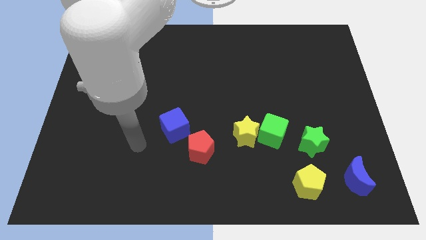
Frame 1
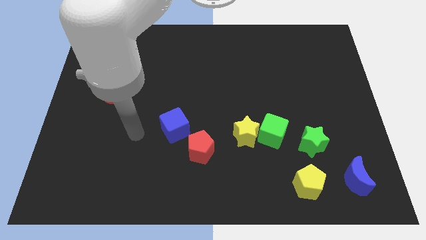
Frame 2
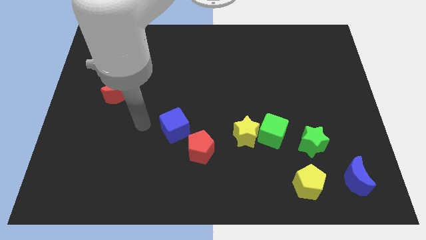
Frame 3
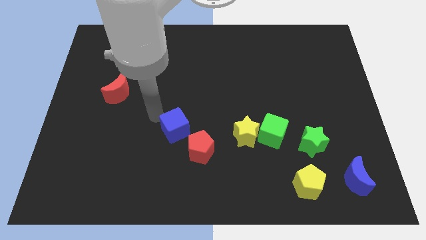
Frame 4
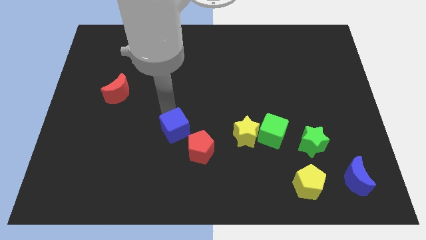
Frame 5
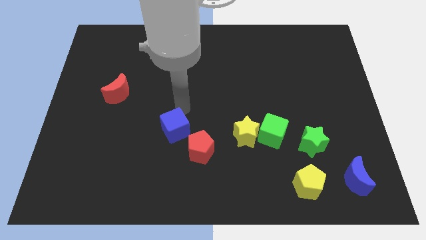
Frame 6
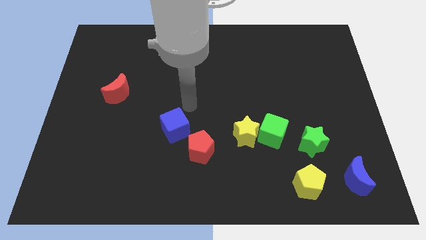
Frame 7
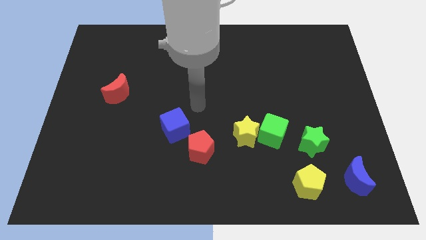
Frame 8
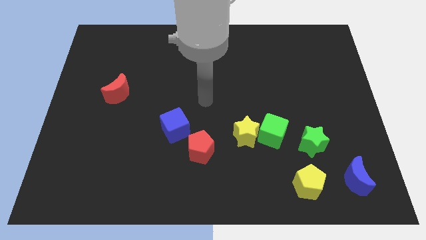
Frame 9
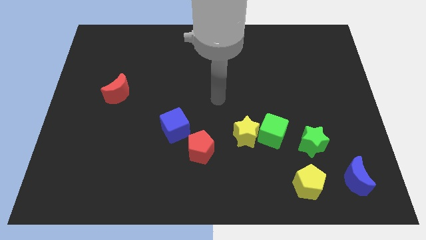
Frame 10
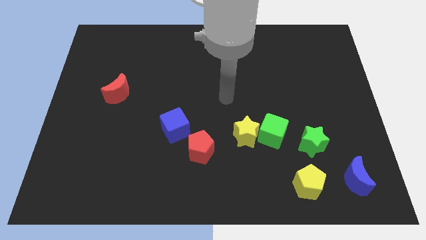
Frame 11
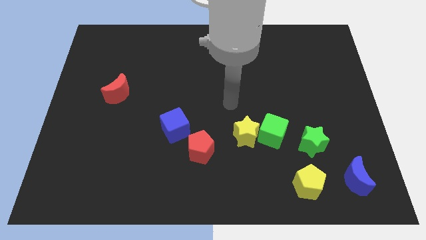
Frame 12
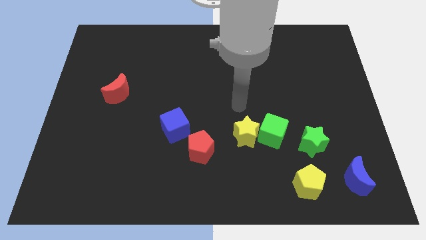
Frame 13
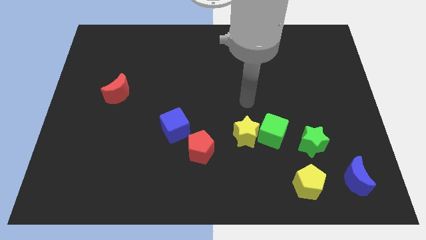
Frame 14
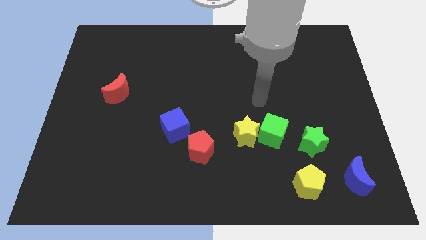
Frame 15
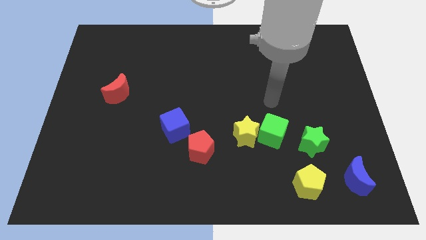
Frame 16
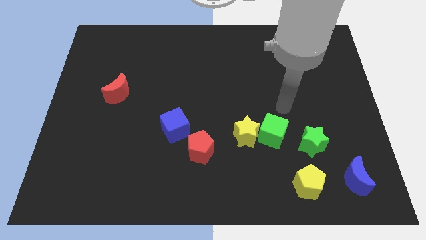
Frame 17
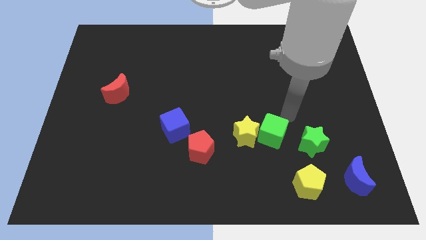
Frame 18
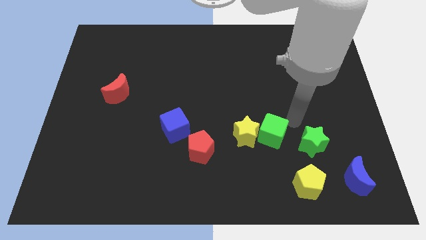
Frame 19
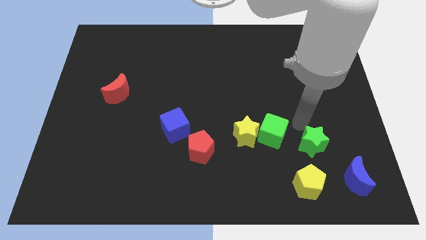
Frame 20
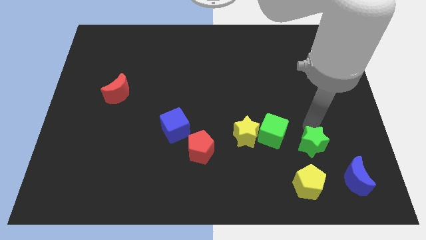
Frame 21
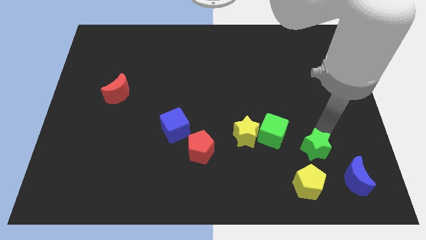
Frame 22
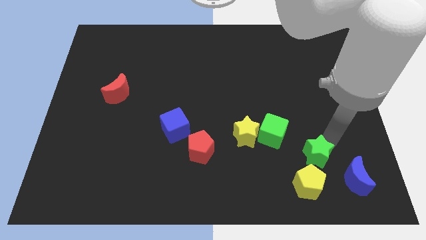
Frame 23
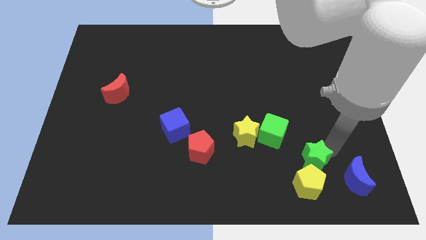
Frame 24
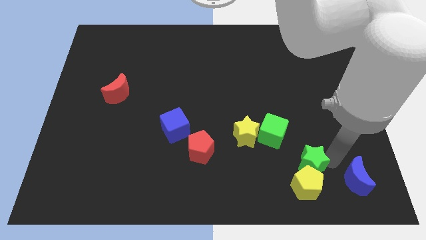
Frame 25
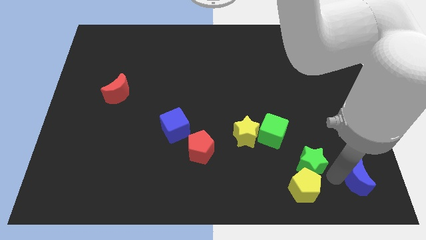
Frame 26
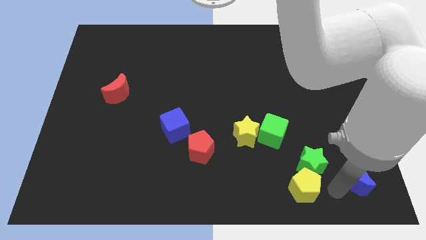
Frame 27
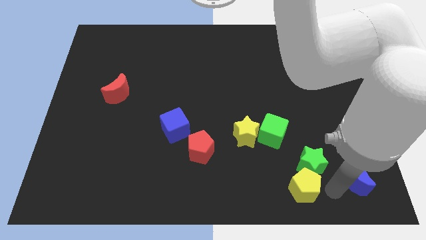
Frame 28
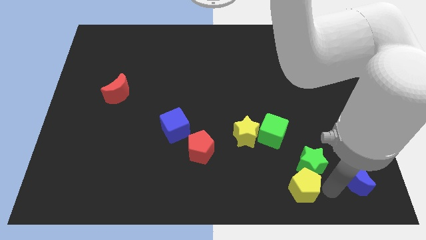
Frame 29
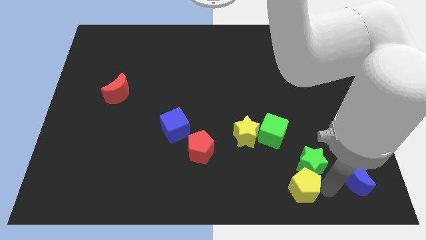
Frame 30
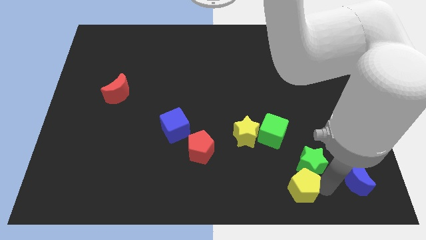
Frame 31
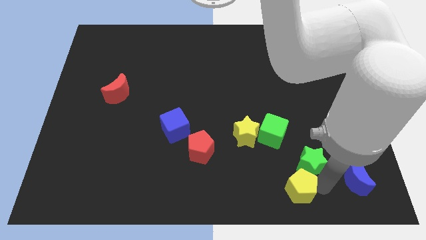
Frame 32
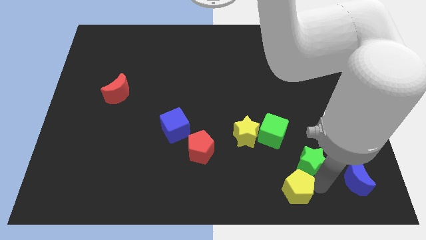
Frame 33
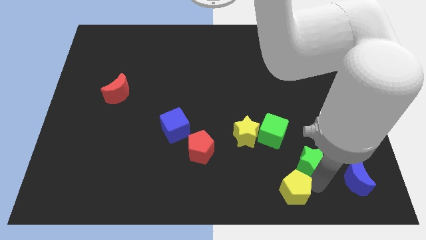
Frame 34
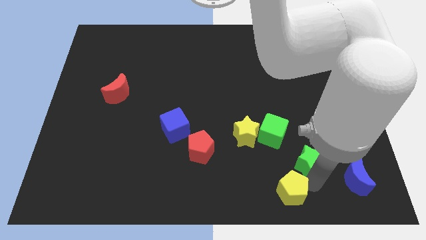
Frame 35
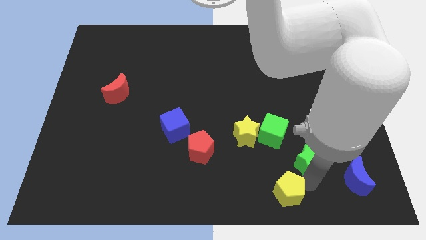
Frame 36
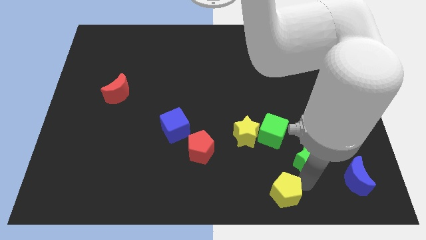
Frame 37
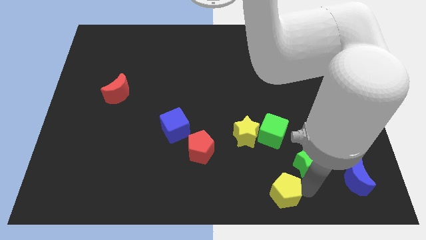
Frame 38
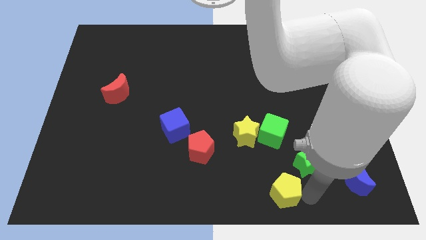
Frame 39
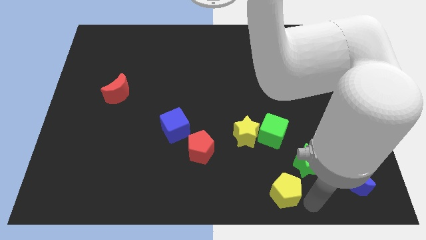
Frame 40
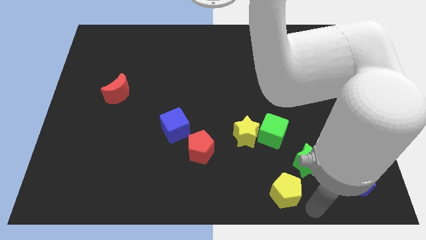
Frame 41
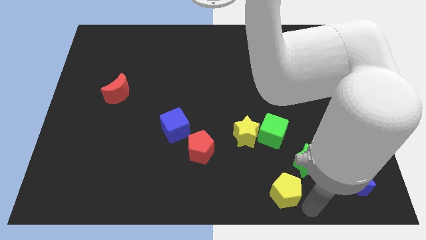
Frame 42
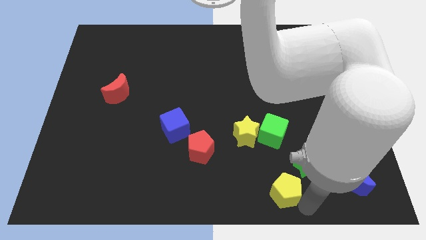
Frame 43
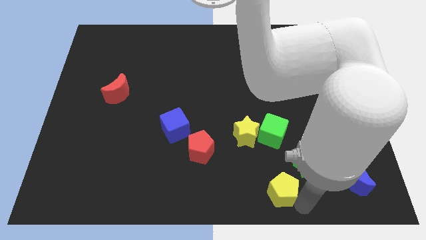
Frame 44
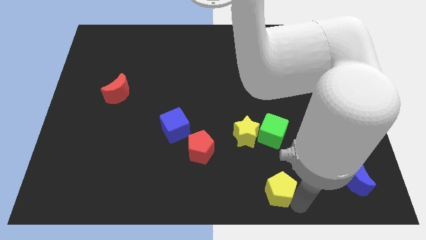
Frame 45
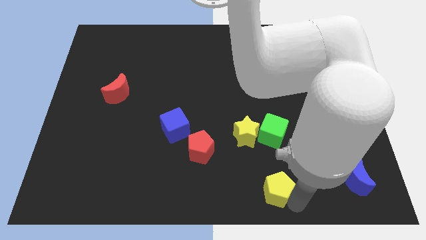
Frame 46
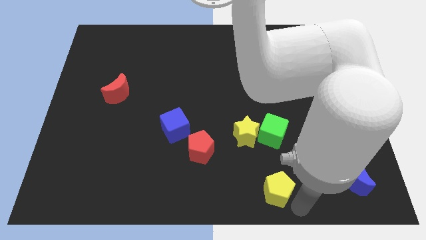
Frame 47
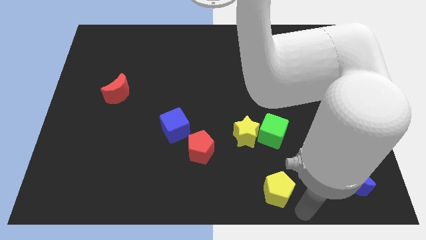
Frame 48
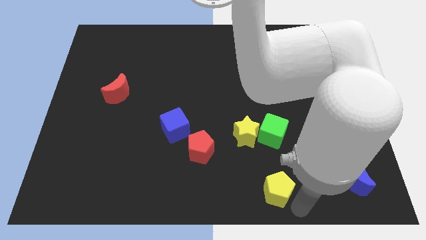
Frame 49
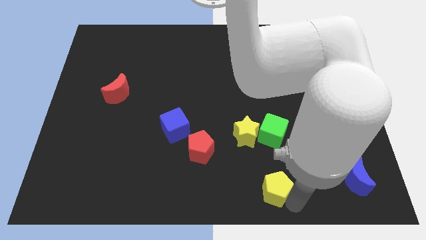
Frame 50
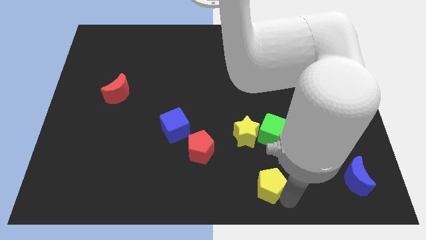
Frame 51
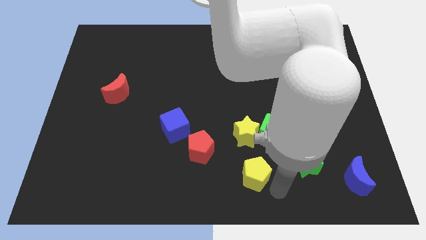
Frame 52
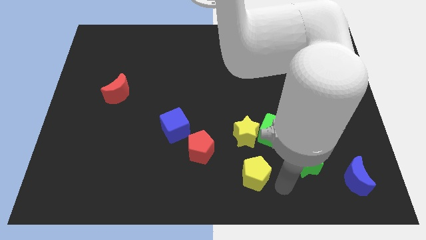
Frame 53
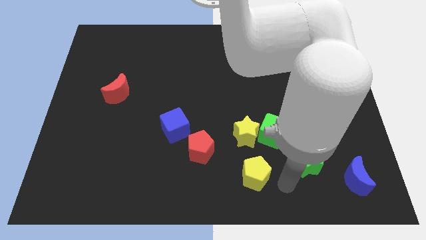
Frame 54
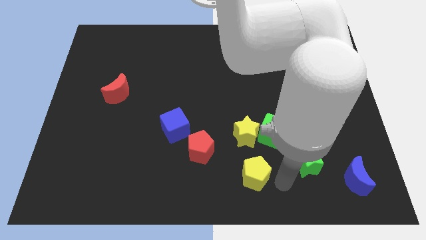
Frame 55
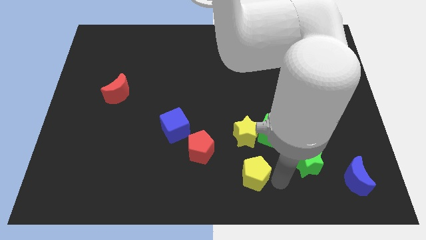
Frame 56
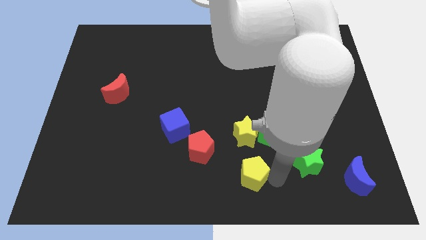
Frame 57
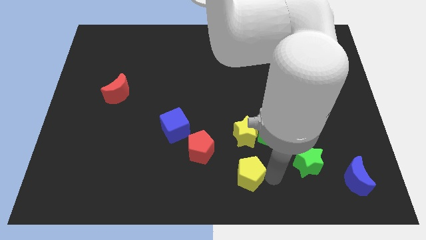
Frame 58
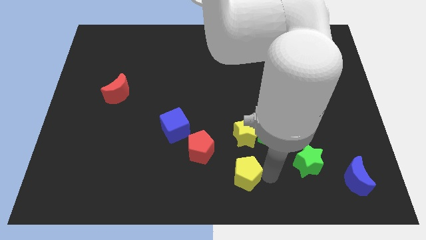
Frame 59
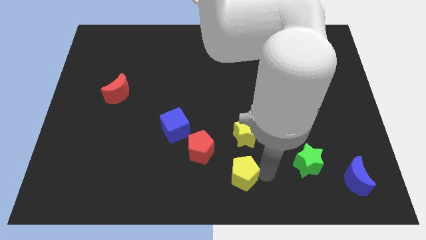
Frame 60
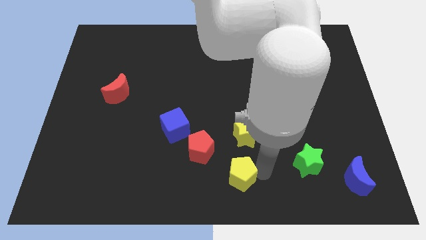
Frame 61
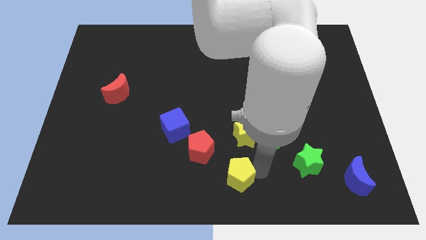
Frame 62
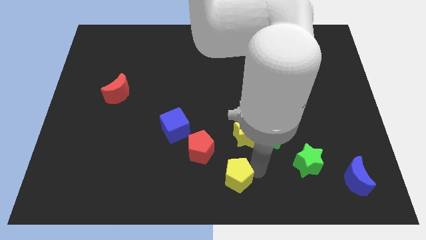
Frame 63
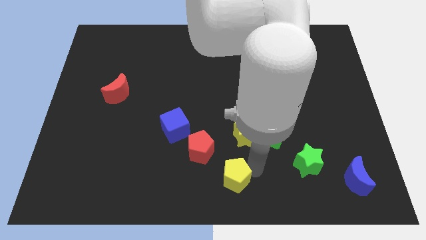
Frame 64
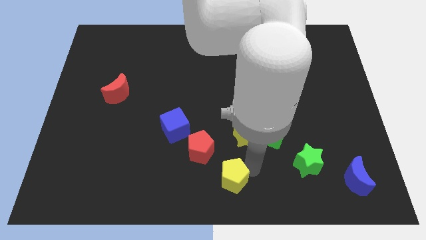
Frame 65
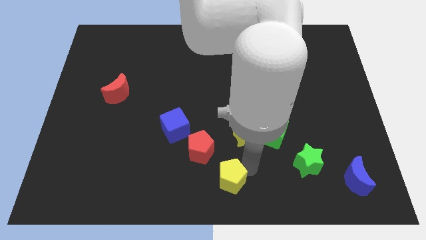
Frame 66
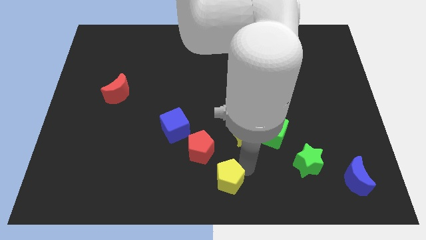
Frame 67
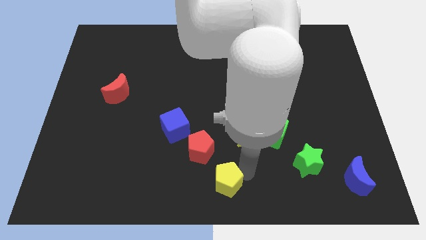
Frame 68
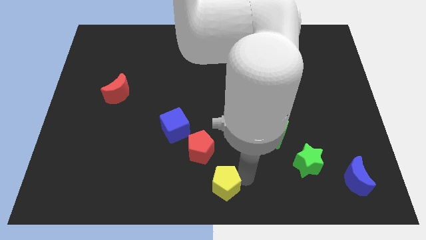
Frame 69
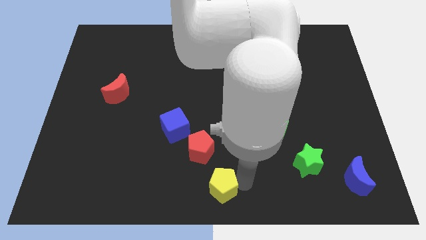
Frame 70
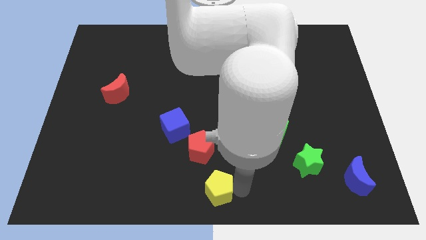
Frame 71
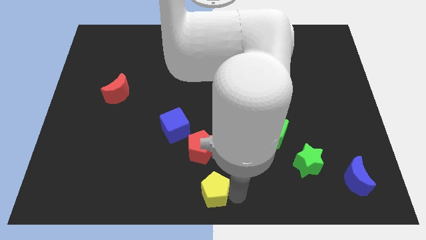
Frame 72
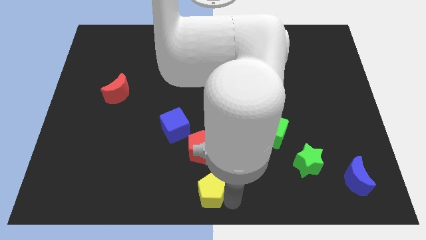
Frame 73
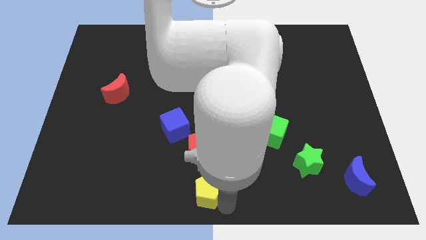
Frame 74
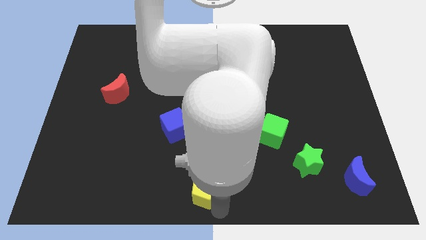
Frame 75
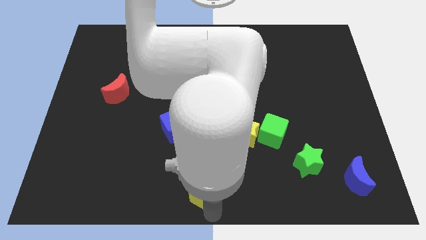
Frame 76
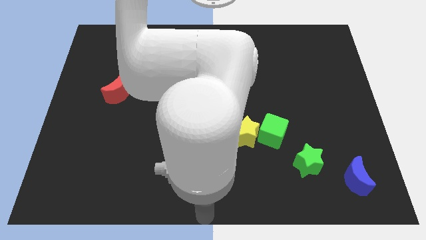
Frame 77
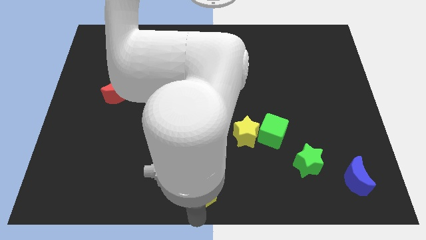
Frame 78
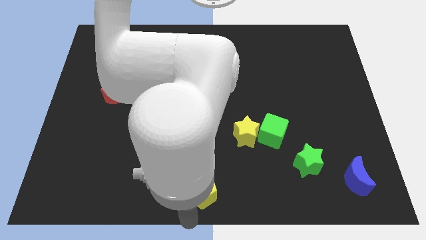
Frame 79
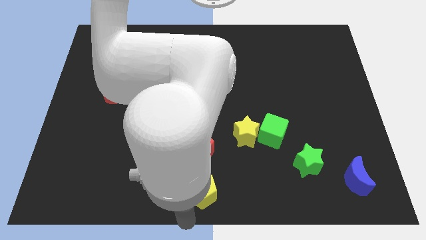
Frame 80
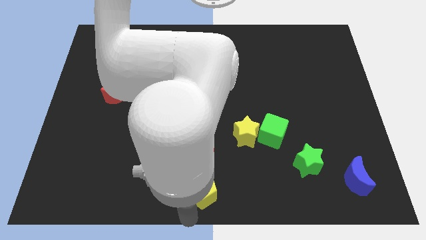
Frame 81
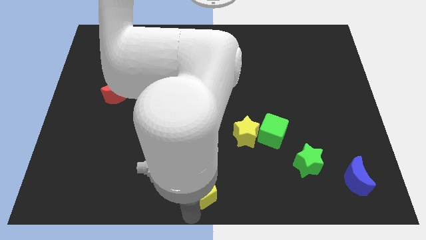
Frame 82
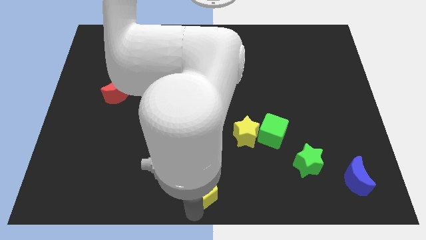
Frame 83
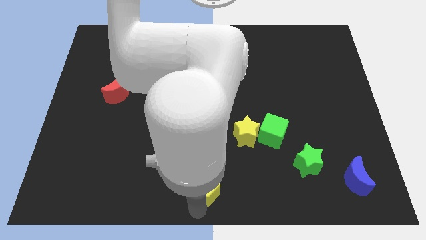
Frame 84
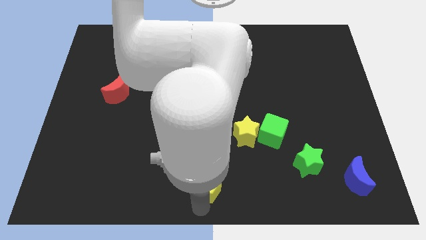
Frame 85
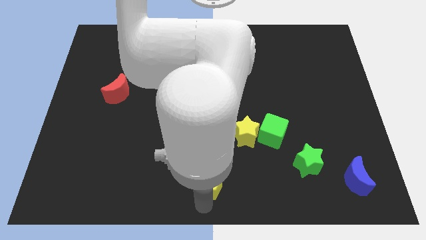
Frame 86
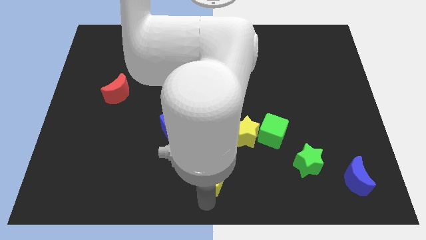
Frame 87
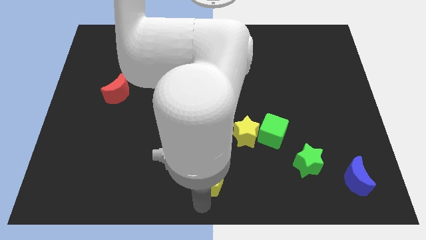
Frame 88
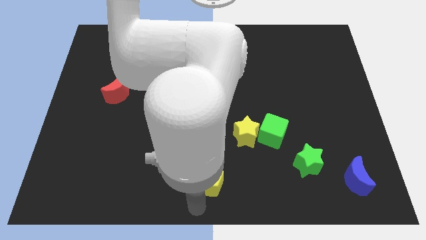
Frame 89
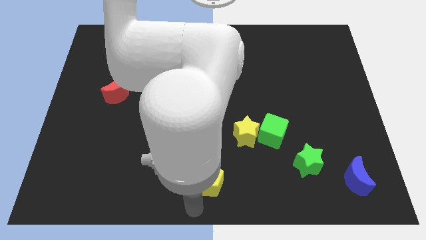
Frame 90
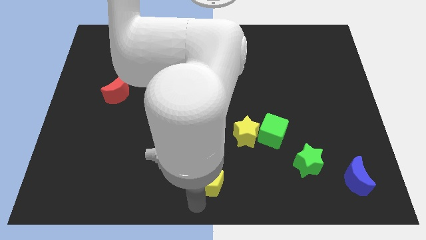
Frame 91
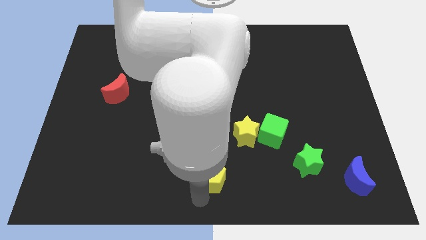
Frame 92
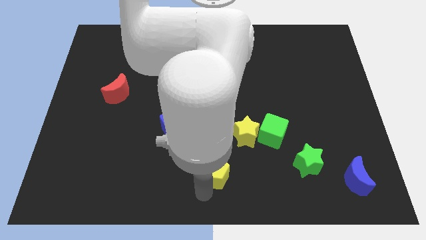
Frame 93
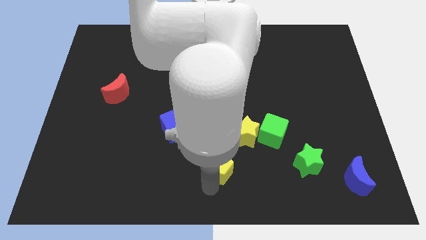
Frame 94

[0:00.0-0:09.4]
put the yellow pentagon to the red pentagon
